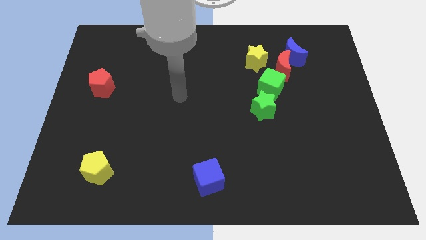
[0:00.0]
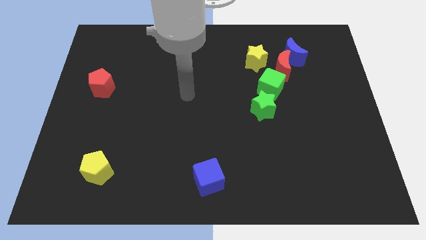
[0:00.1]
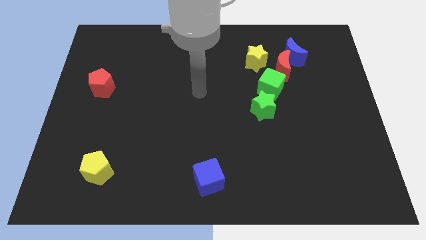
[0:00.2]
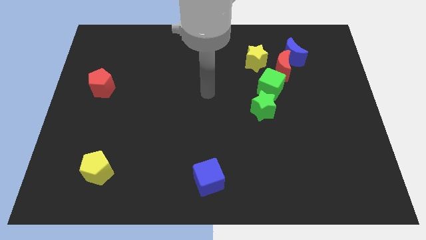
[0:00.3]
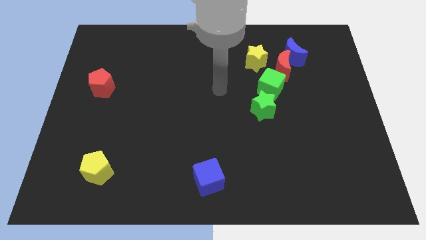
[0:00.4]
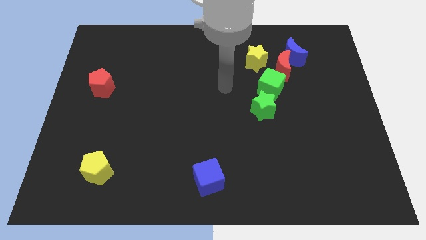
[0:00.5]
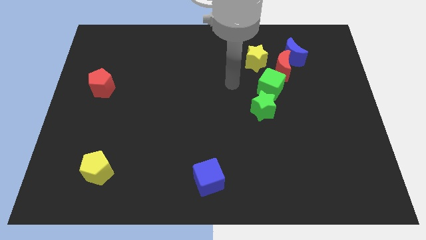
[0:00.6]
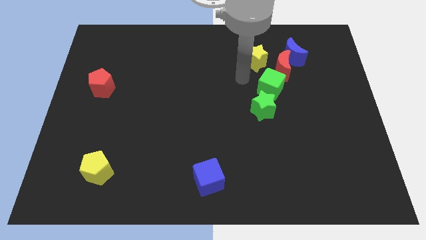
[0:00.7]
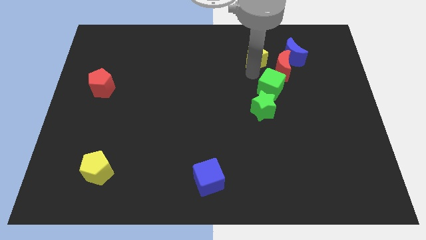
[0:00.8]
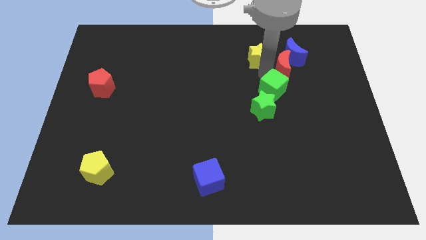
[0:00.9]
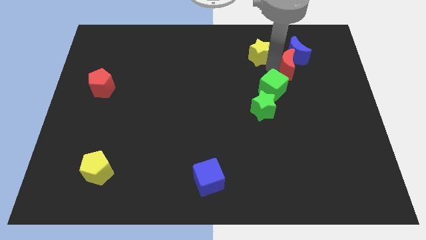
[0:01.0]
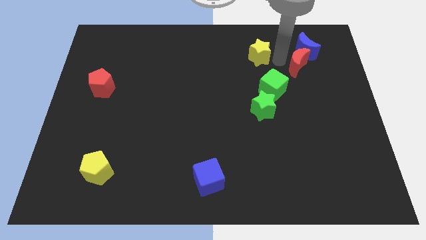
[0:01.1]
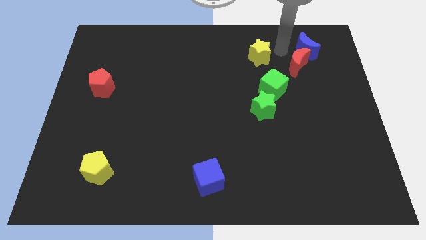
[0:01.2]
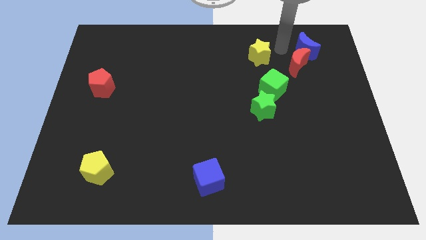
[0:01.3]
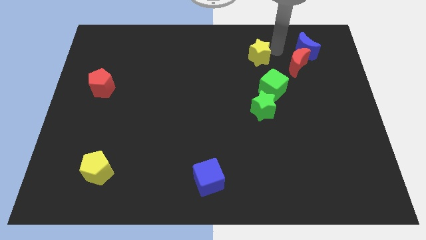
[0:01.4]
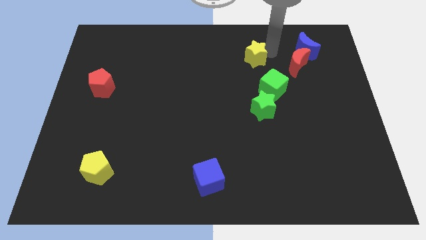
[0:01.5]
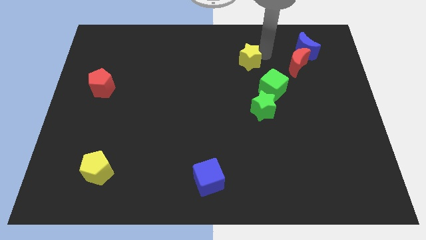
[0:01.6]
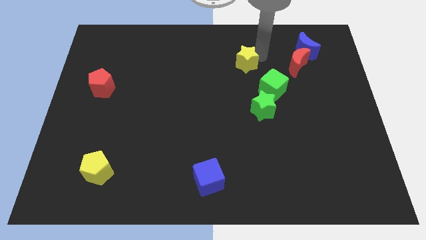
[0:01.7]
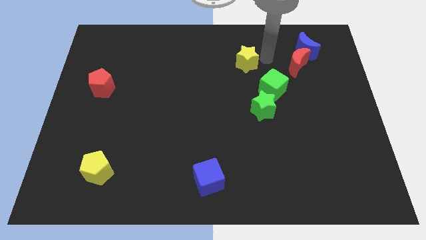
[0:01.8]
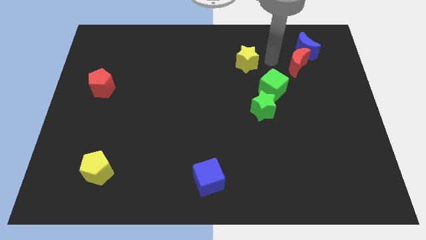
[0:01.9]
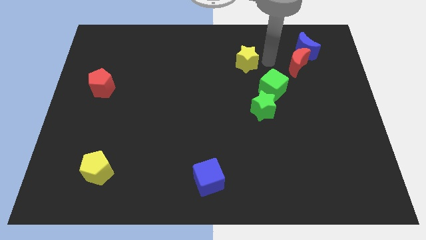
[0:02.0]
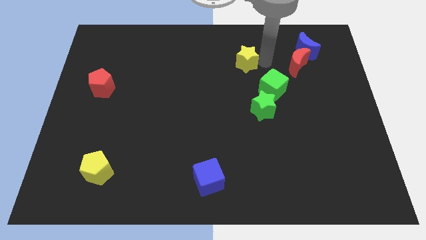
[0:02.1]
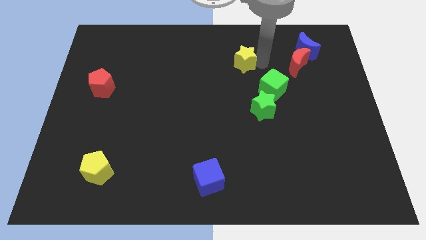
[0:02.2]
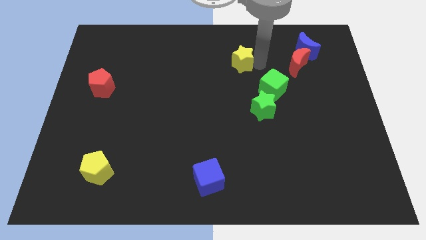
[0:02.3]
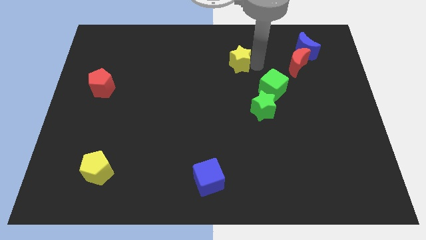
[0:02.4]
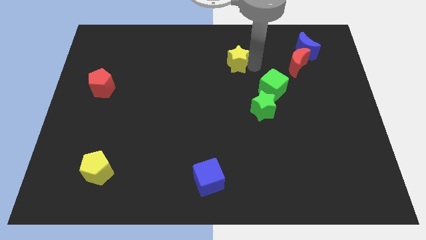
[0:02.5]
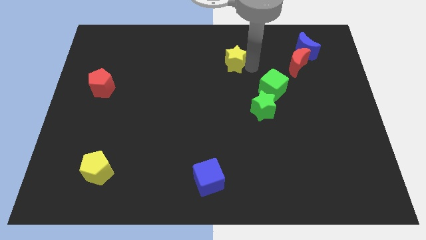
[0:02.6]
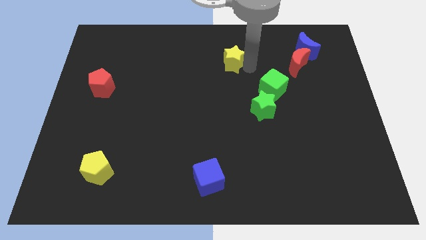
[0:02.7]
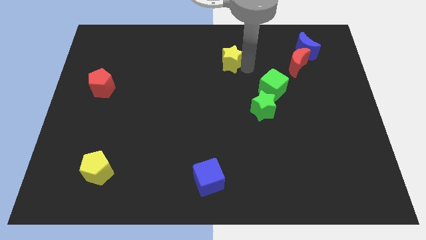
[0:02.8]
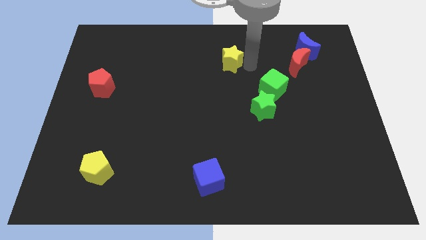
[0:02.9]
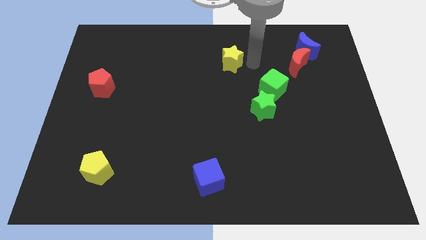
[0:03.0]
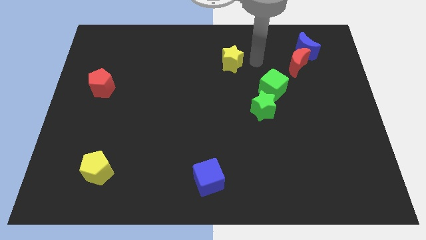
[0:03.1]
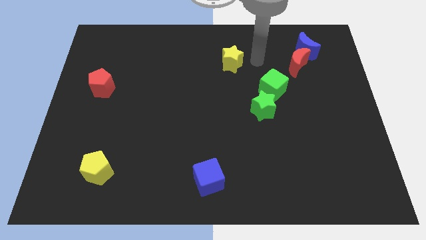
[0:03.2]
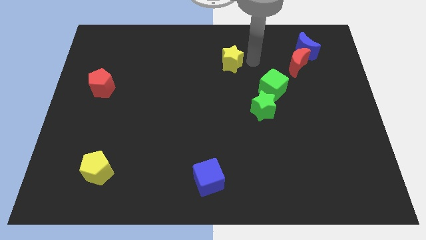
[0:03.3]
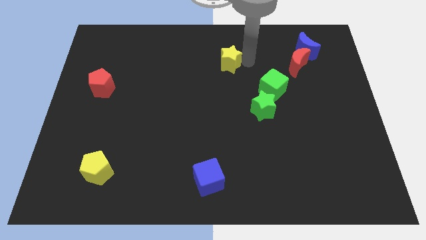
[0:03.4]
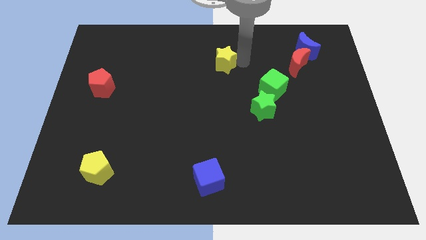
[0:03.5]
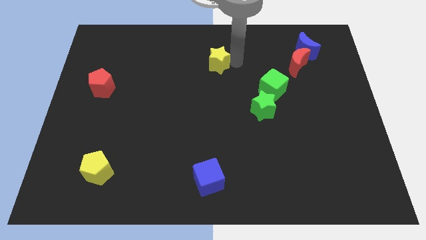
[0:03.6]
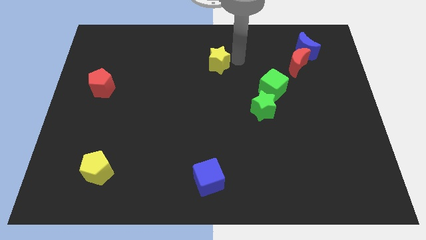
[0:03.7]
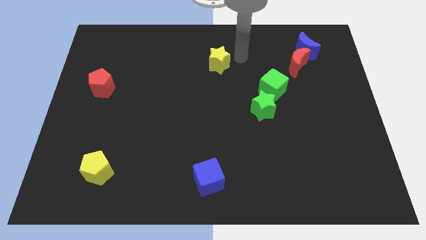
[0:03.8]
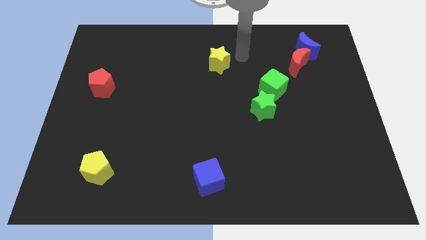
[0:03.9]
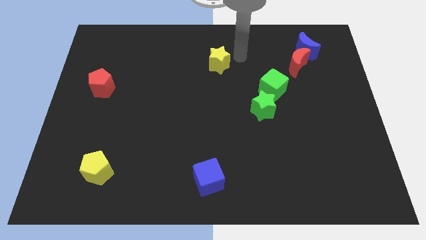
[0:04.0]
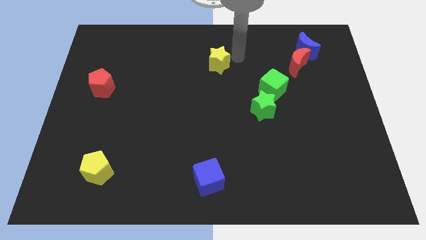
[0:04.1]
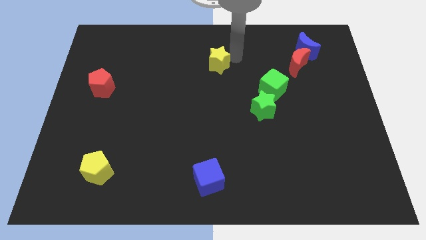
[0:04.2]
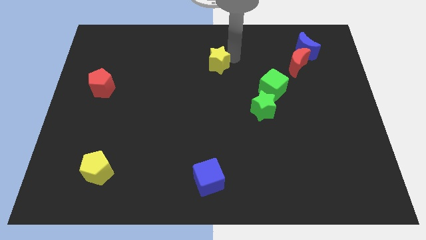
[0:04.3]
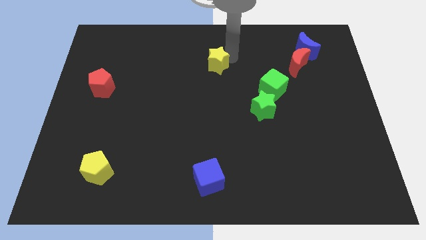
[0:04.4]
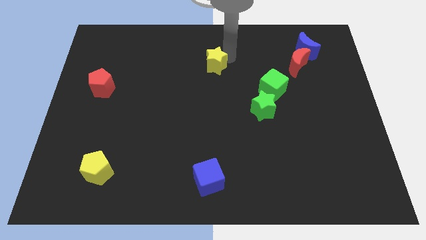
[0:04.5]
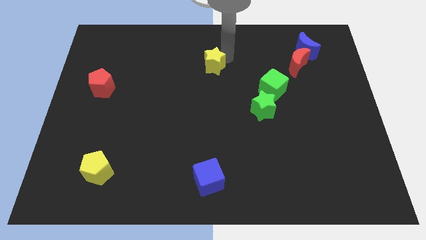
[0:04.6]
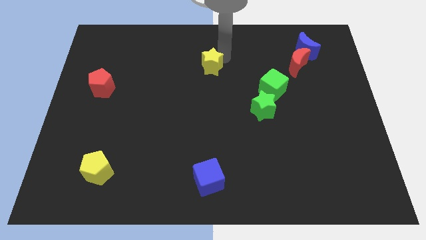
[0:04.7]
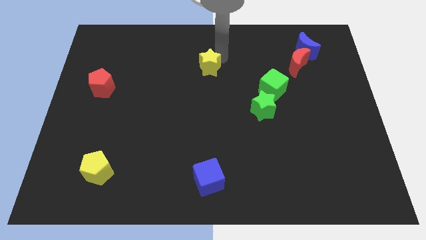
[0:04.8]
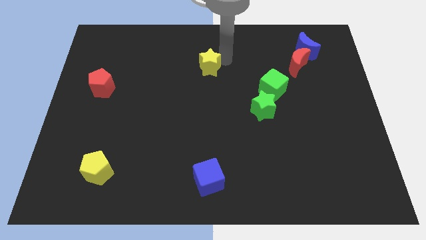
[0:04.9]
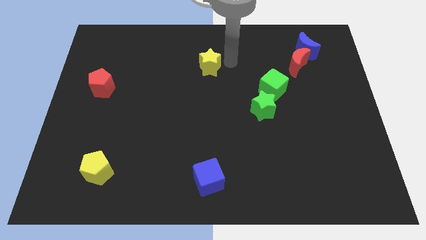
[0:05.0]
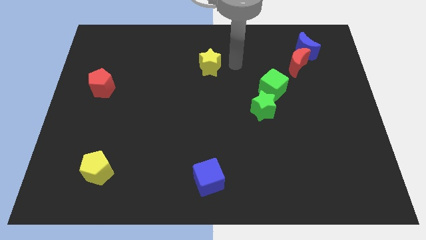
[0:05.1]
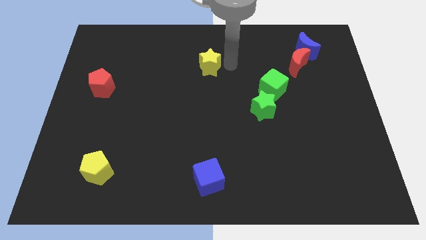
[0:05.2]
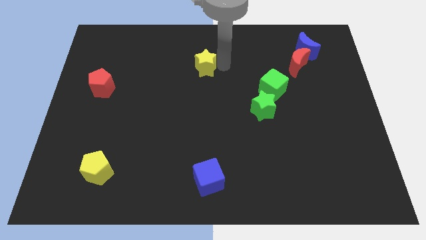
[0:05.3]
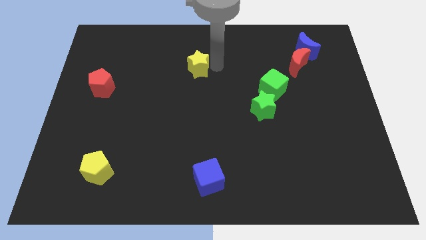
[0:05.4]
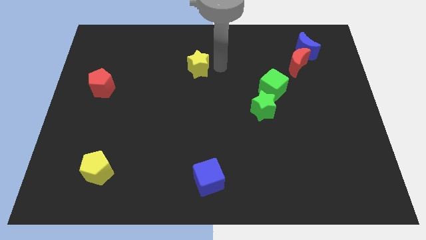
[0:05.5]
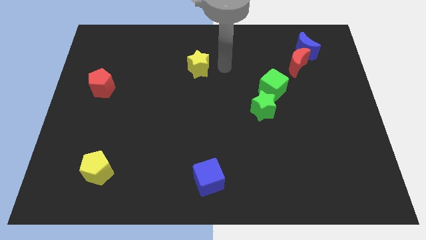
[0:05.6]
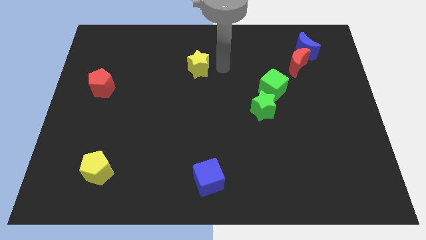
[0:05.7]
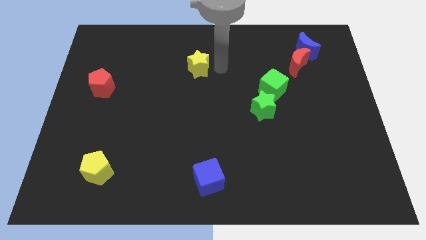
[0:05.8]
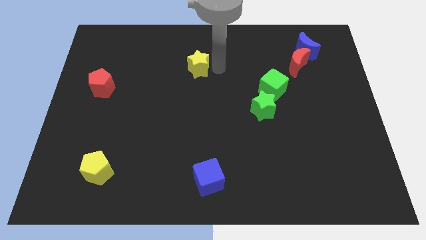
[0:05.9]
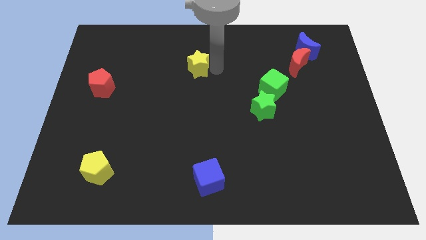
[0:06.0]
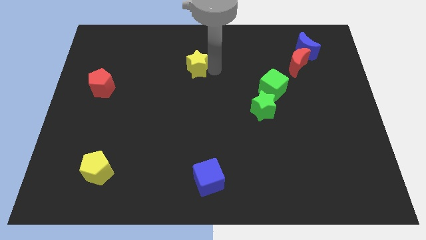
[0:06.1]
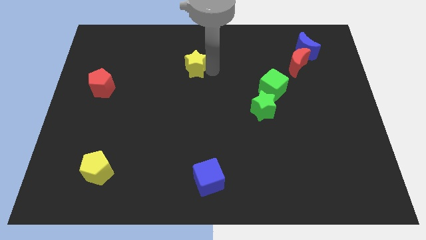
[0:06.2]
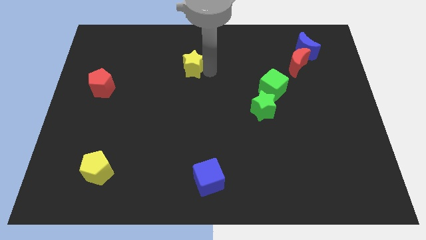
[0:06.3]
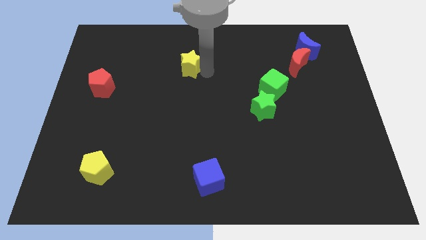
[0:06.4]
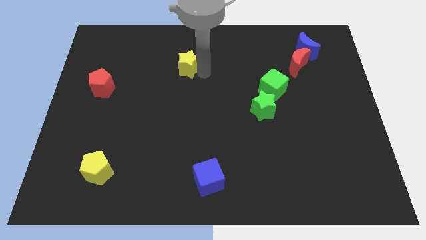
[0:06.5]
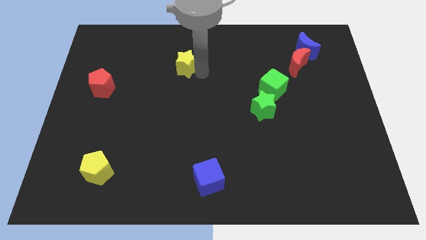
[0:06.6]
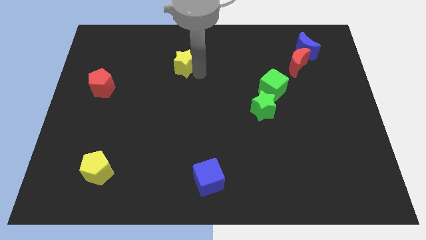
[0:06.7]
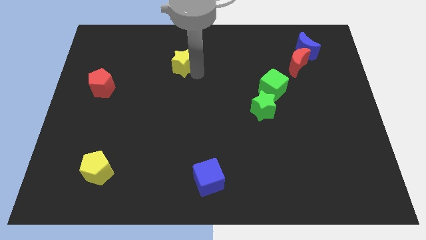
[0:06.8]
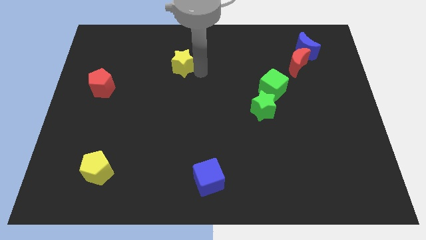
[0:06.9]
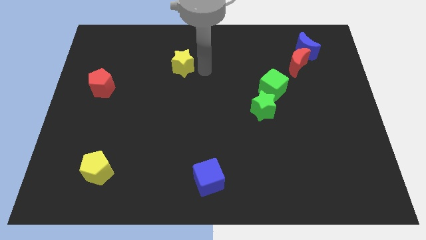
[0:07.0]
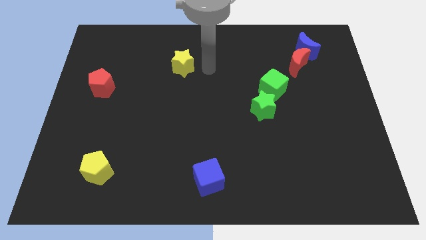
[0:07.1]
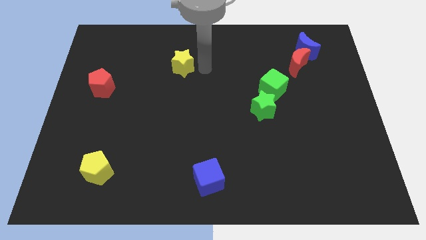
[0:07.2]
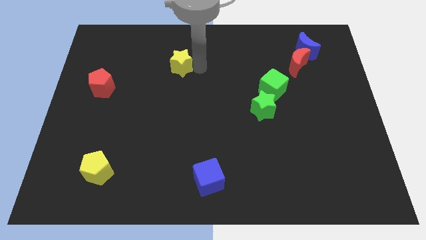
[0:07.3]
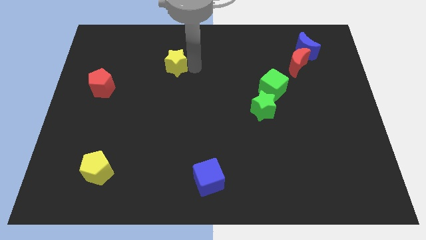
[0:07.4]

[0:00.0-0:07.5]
slide the yellow star left

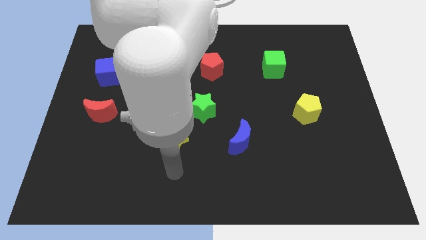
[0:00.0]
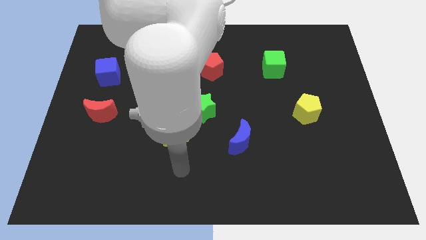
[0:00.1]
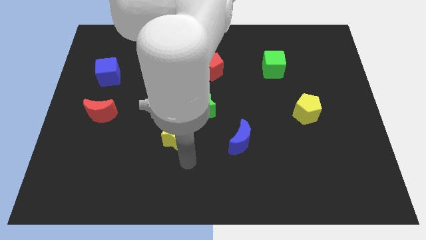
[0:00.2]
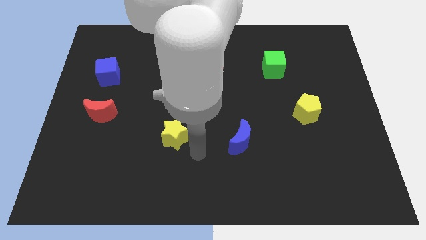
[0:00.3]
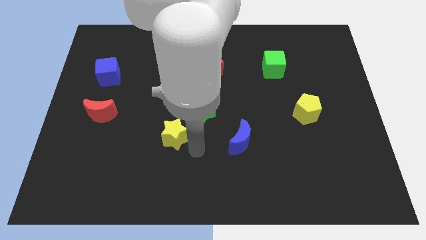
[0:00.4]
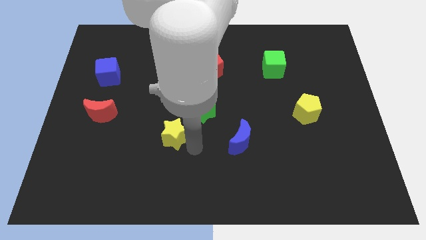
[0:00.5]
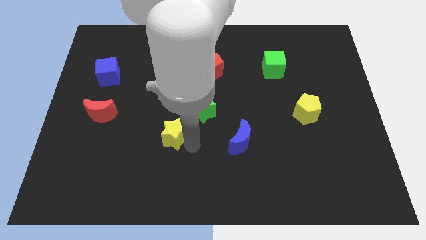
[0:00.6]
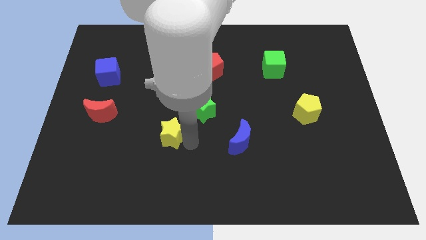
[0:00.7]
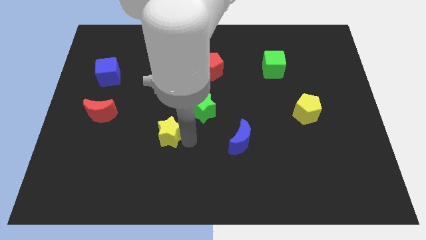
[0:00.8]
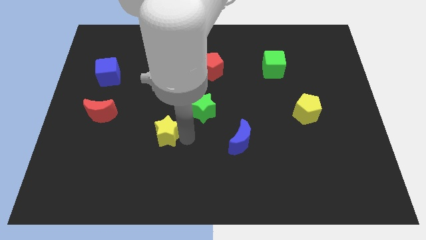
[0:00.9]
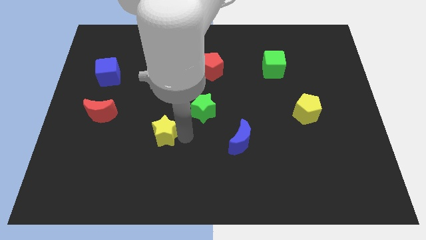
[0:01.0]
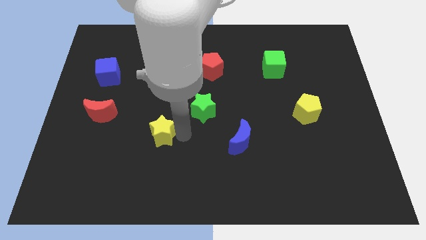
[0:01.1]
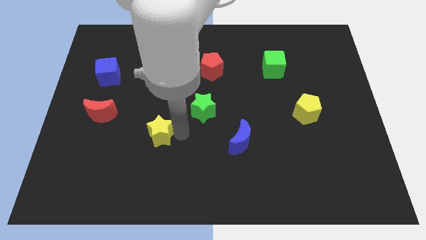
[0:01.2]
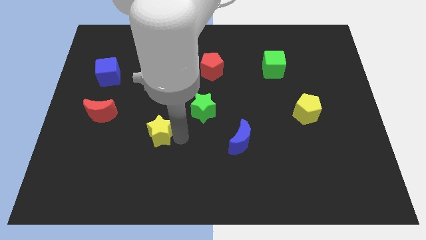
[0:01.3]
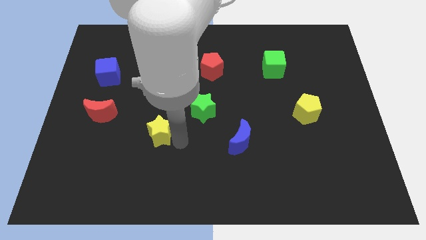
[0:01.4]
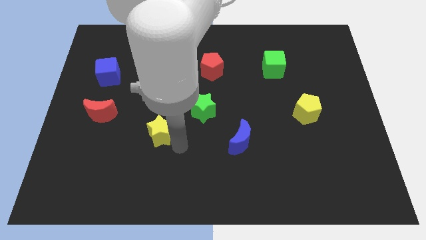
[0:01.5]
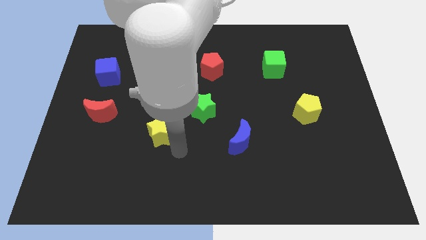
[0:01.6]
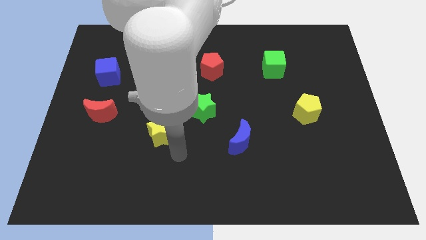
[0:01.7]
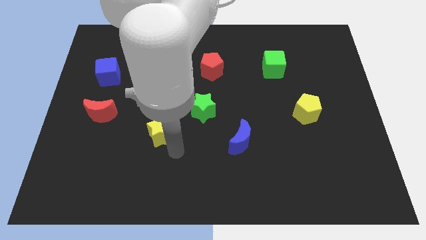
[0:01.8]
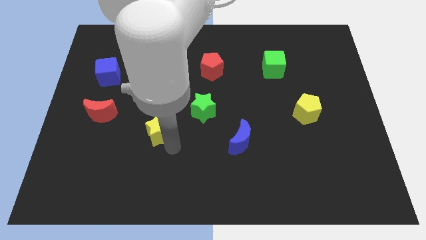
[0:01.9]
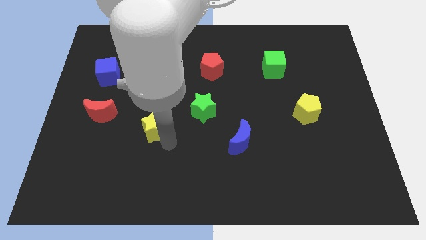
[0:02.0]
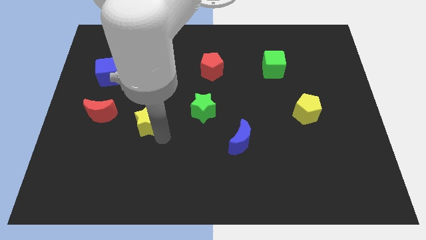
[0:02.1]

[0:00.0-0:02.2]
move the yellow star up and left diagonally a little
